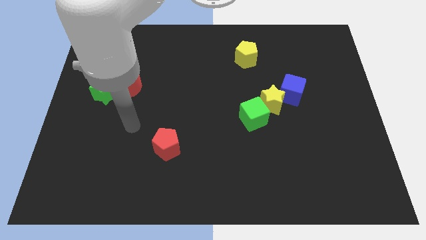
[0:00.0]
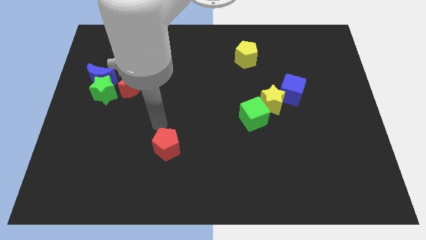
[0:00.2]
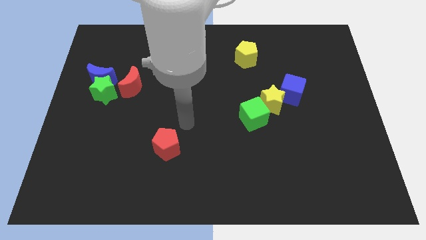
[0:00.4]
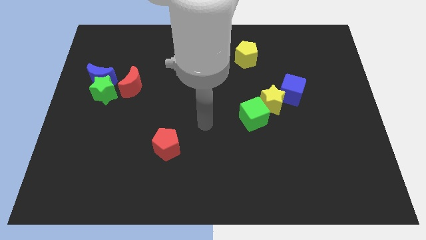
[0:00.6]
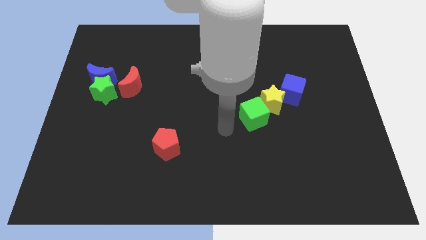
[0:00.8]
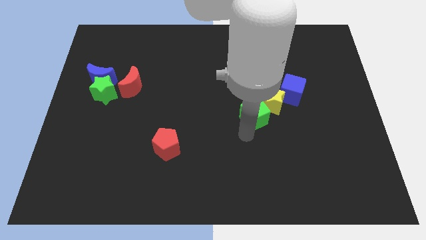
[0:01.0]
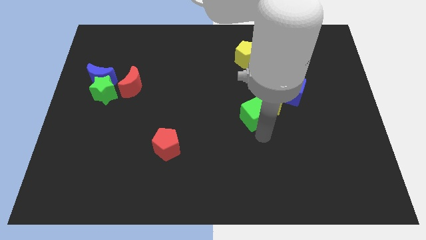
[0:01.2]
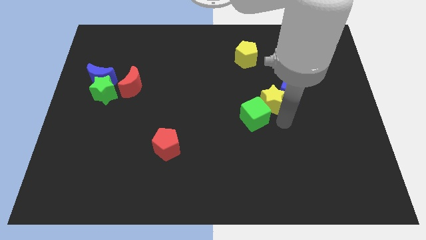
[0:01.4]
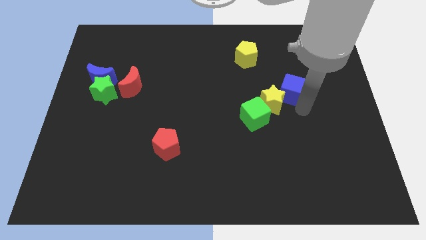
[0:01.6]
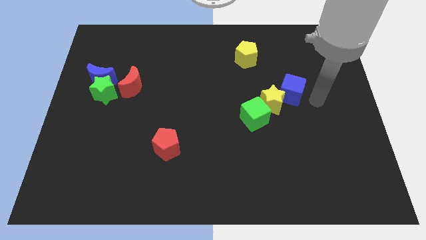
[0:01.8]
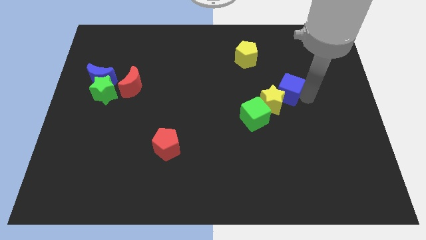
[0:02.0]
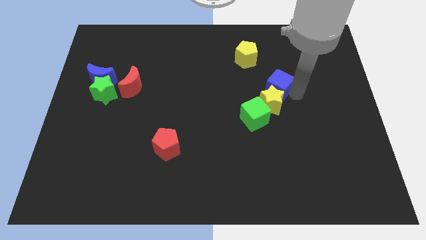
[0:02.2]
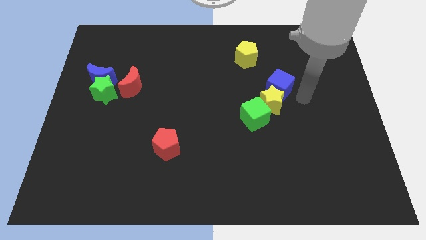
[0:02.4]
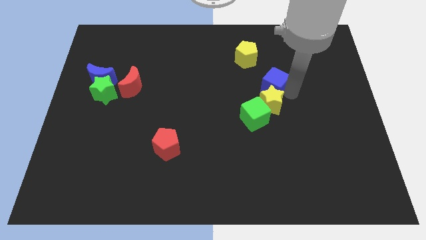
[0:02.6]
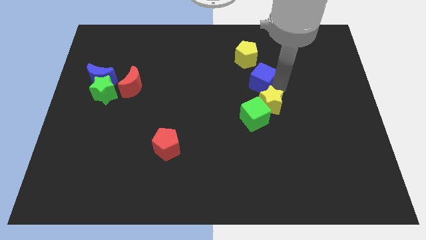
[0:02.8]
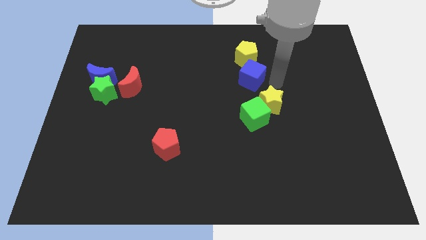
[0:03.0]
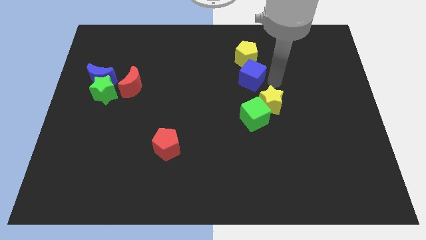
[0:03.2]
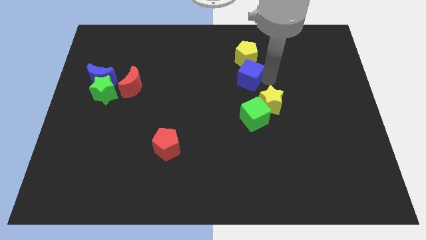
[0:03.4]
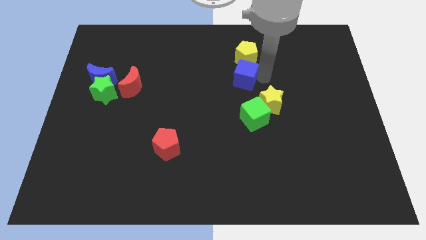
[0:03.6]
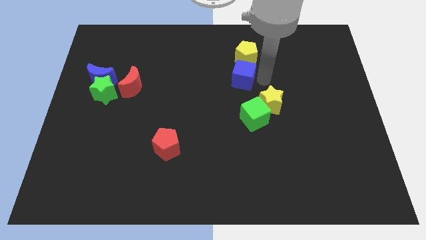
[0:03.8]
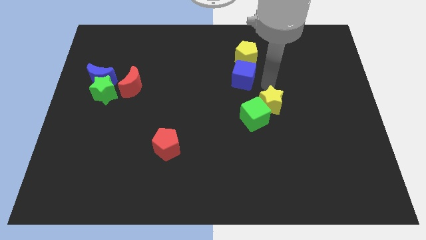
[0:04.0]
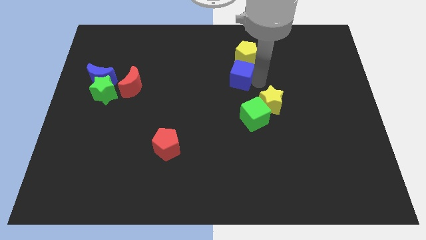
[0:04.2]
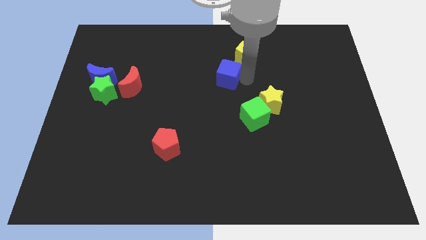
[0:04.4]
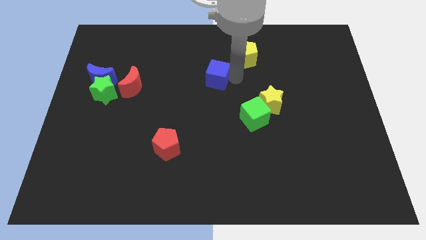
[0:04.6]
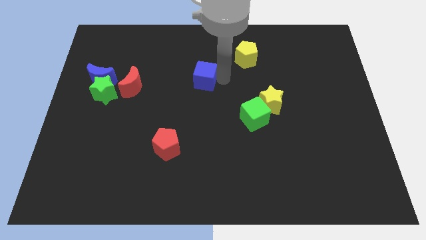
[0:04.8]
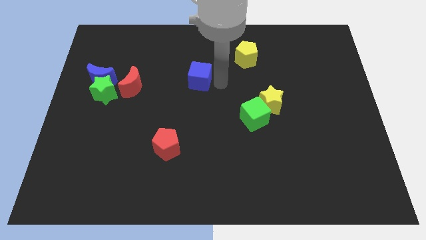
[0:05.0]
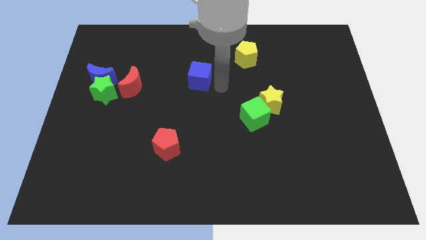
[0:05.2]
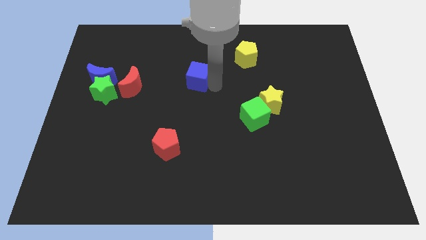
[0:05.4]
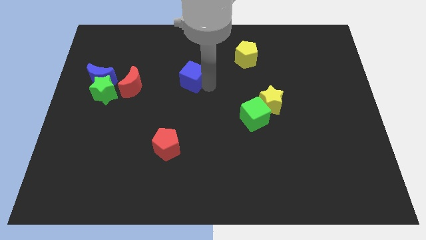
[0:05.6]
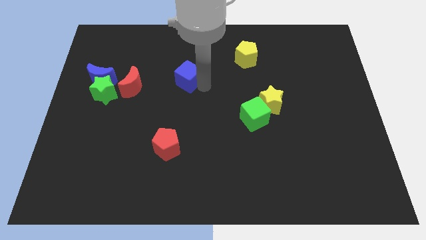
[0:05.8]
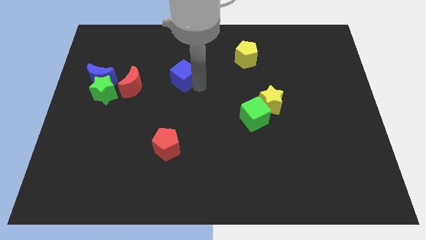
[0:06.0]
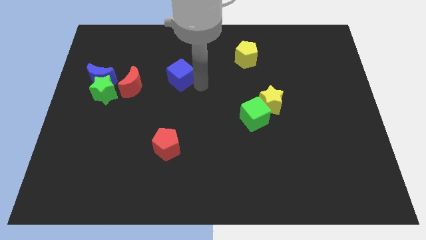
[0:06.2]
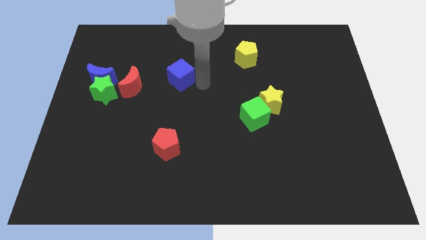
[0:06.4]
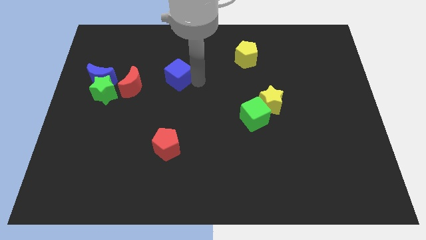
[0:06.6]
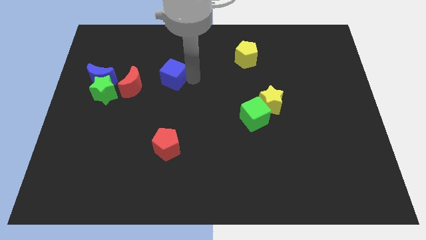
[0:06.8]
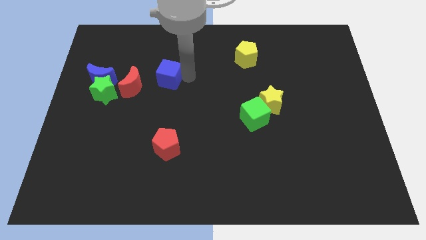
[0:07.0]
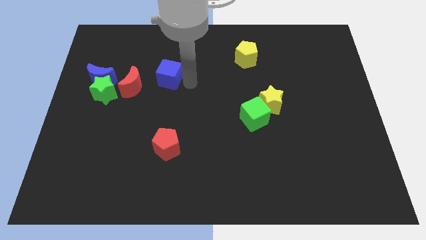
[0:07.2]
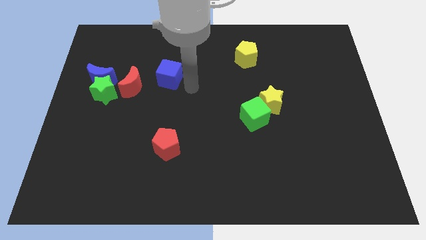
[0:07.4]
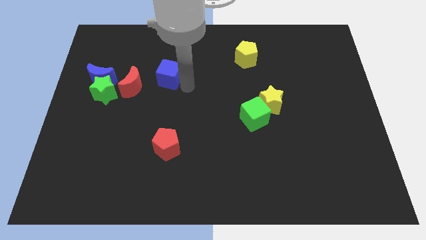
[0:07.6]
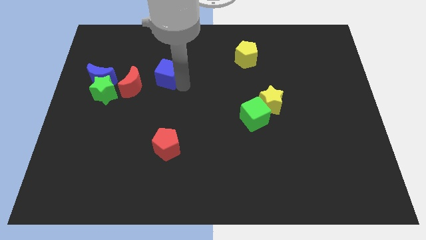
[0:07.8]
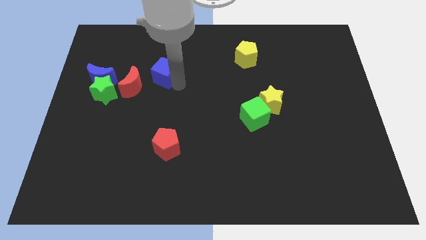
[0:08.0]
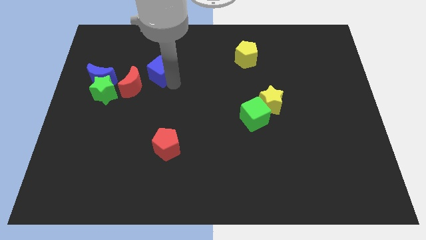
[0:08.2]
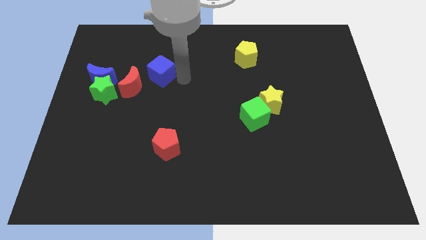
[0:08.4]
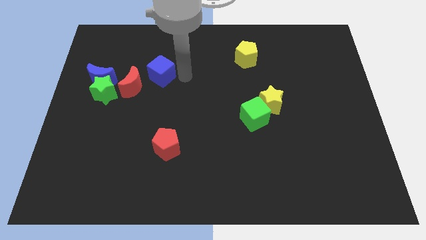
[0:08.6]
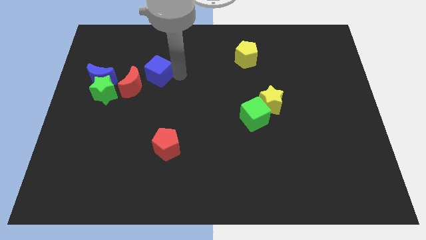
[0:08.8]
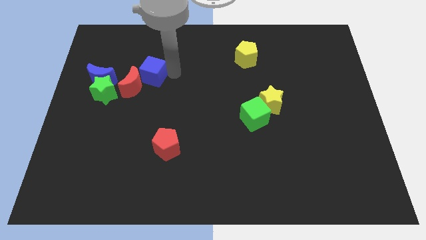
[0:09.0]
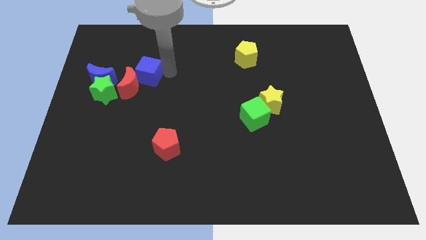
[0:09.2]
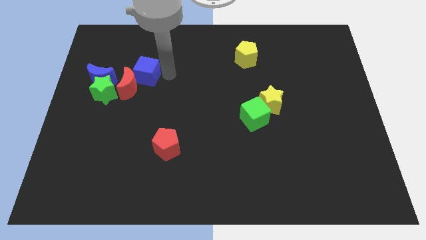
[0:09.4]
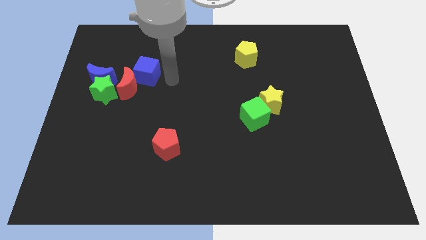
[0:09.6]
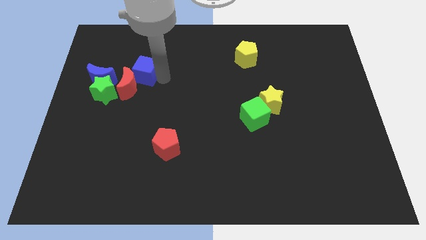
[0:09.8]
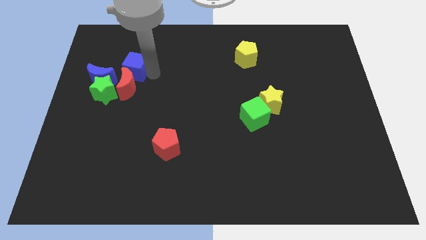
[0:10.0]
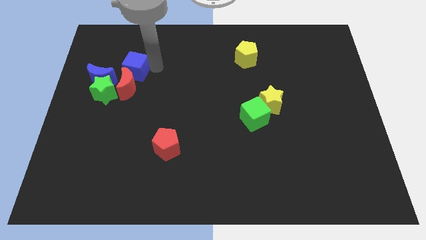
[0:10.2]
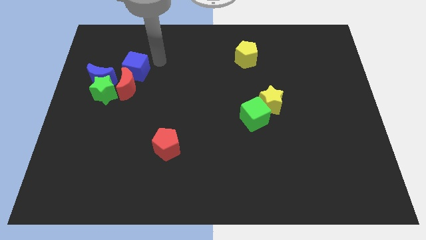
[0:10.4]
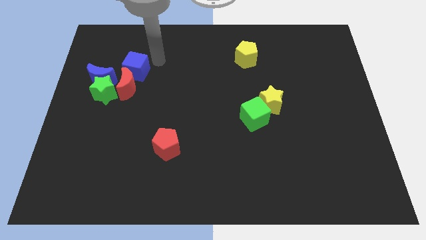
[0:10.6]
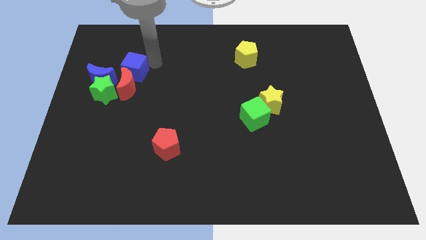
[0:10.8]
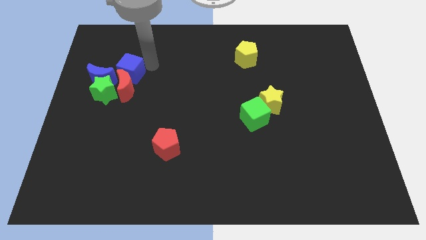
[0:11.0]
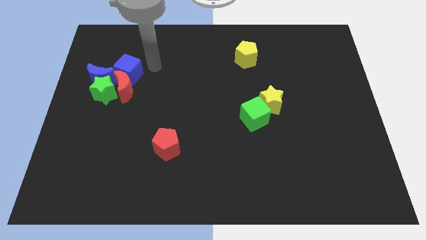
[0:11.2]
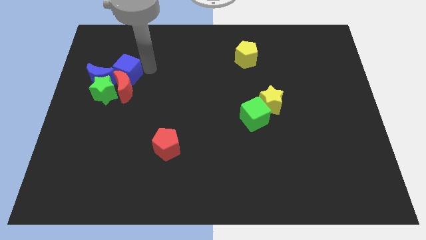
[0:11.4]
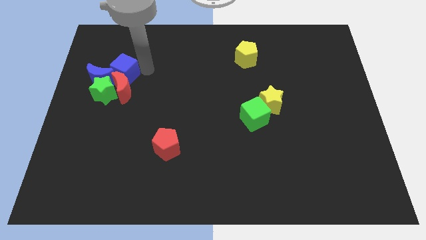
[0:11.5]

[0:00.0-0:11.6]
push the blue cube to the blue moon

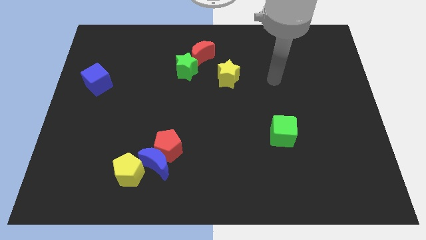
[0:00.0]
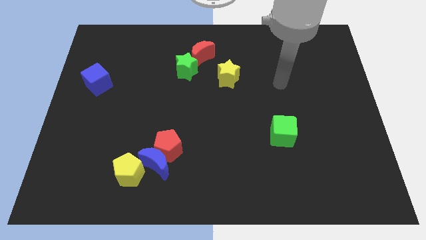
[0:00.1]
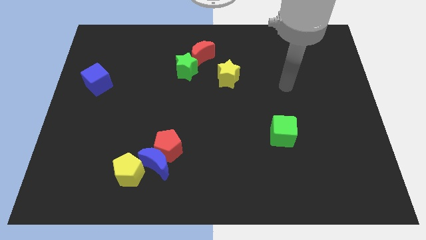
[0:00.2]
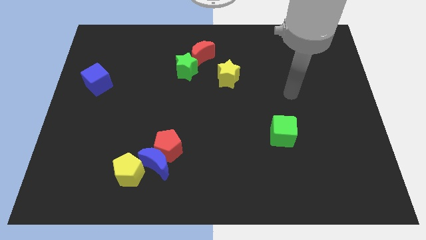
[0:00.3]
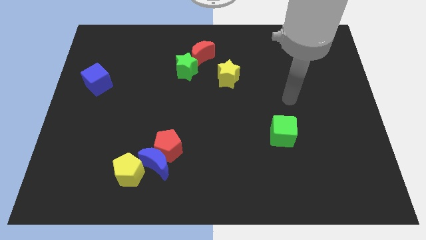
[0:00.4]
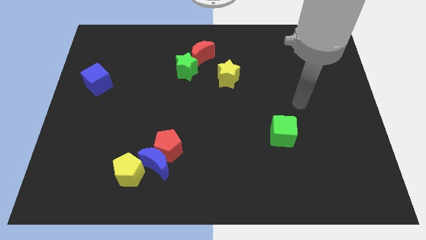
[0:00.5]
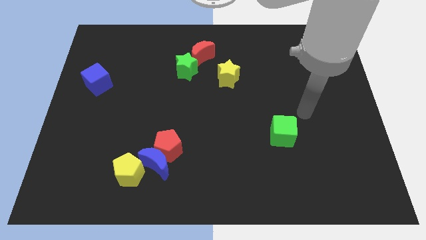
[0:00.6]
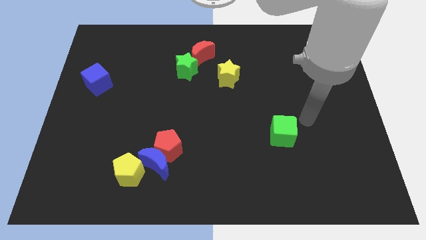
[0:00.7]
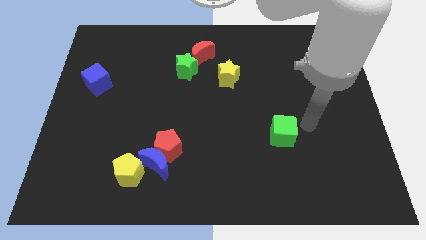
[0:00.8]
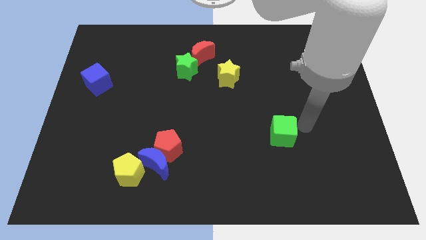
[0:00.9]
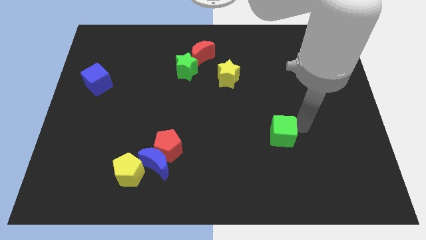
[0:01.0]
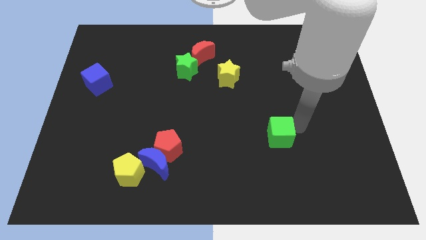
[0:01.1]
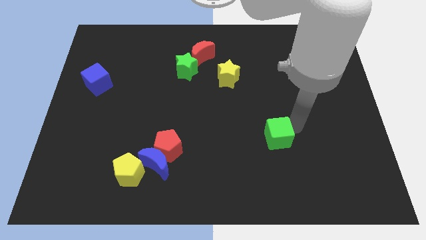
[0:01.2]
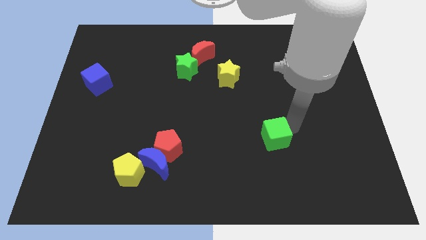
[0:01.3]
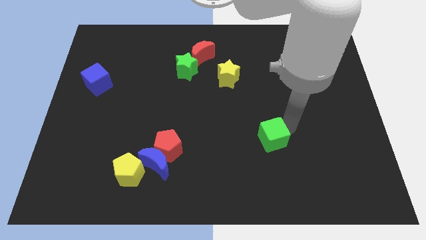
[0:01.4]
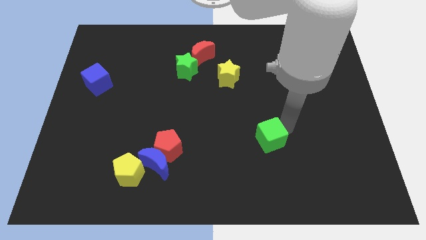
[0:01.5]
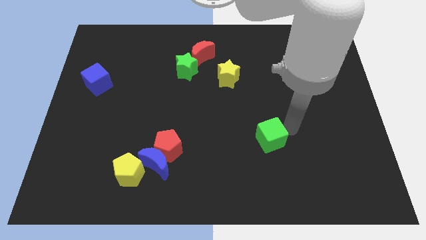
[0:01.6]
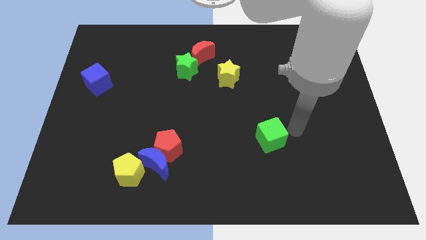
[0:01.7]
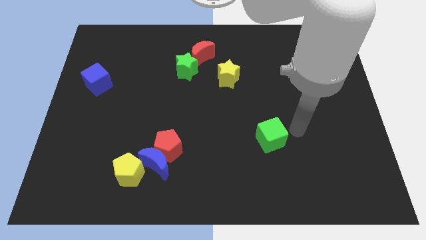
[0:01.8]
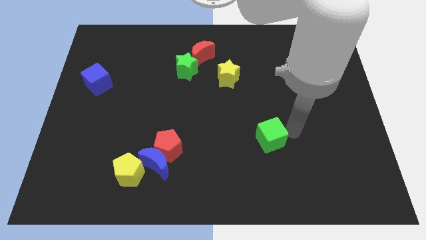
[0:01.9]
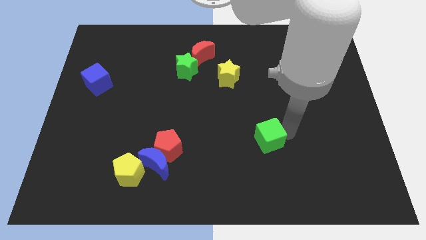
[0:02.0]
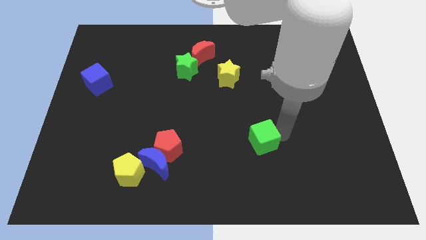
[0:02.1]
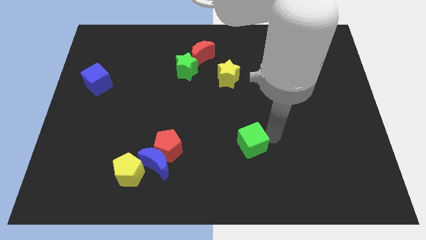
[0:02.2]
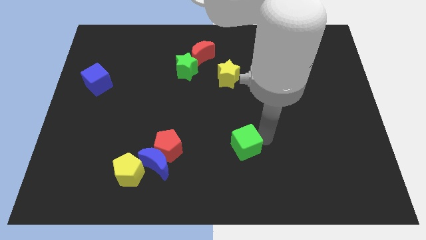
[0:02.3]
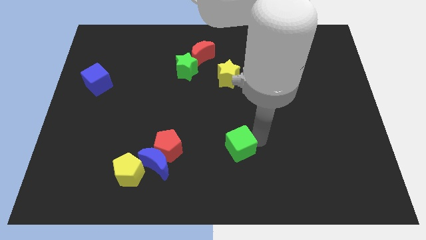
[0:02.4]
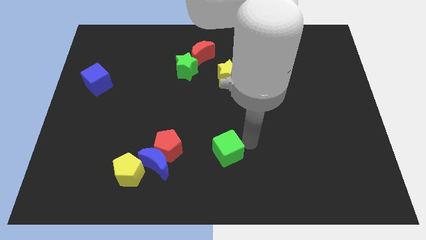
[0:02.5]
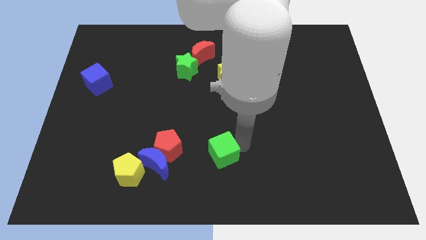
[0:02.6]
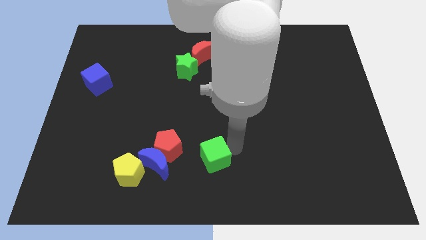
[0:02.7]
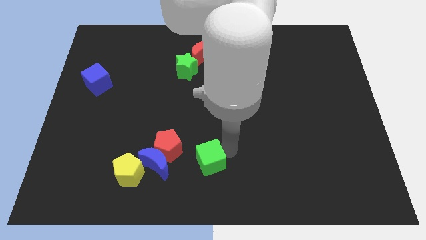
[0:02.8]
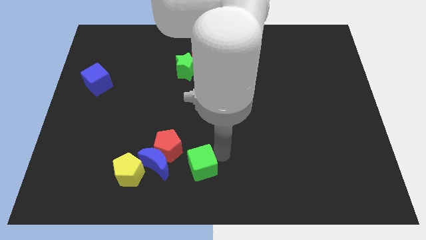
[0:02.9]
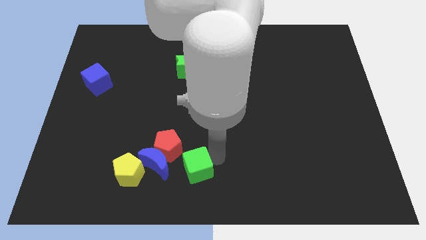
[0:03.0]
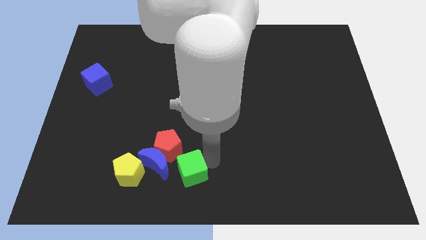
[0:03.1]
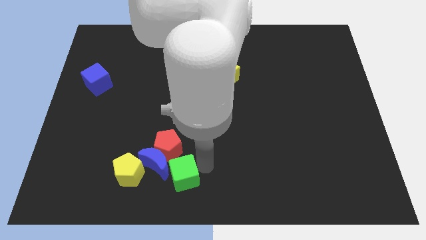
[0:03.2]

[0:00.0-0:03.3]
put the green cube to the blue moon
